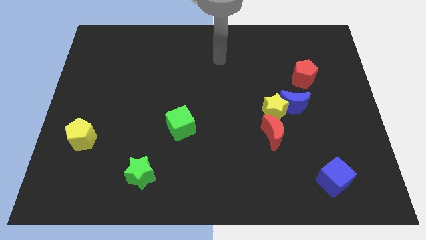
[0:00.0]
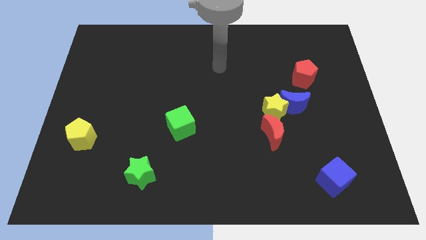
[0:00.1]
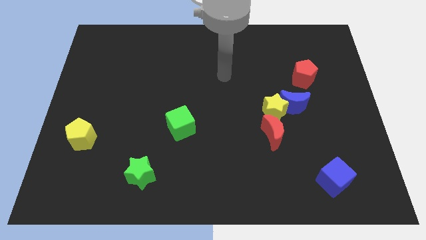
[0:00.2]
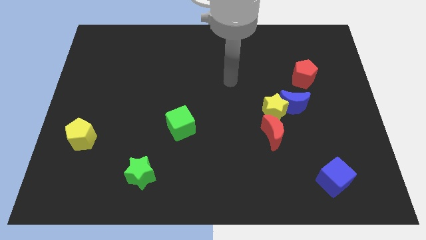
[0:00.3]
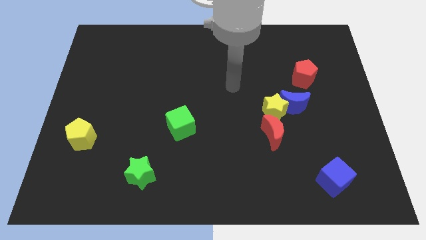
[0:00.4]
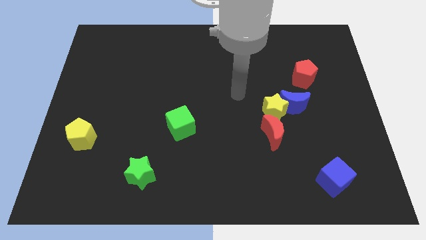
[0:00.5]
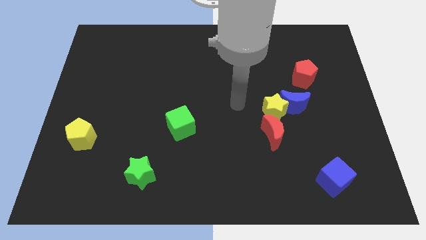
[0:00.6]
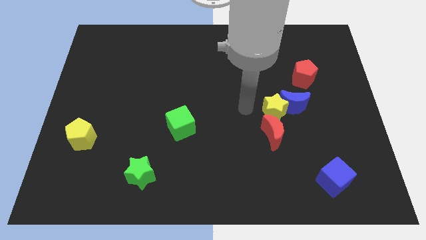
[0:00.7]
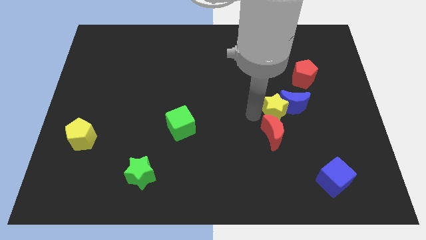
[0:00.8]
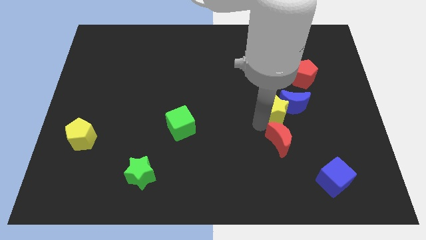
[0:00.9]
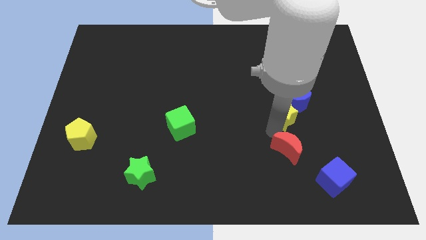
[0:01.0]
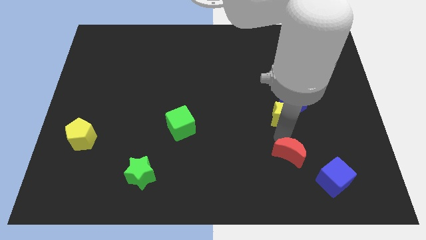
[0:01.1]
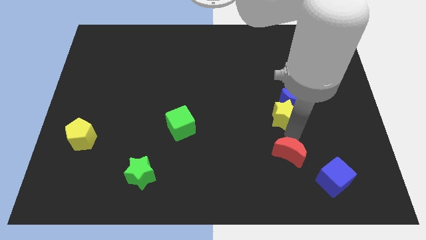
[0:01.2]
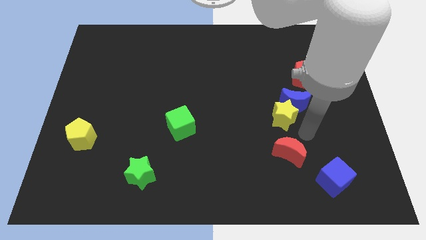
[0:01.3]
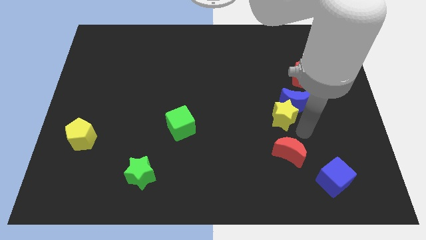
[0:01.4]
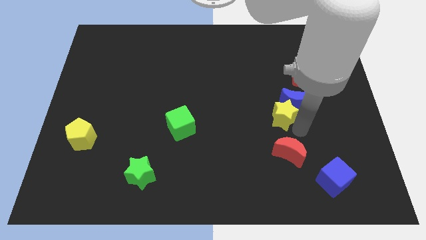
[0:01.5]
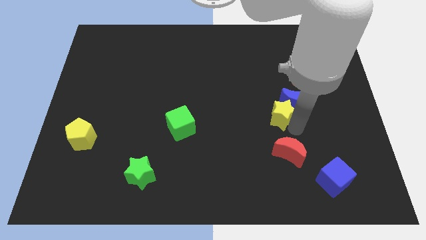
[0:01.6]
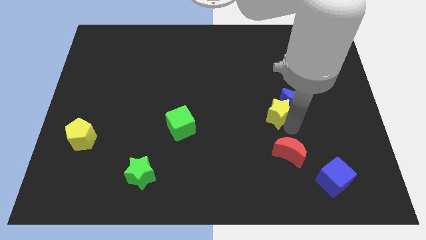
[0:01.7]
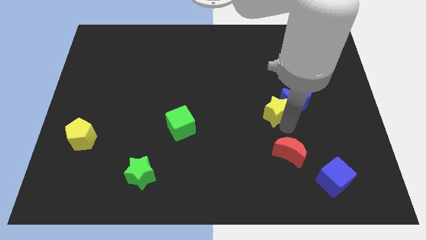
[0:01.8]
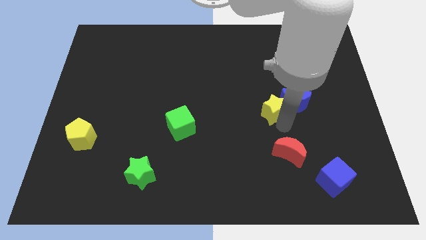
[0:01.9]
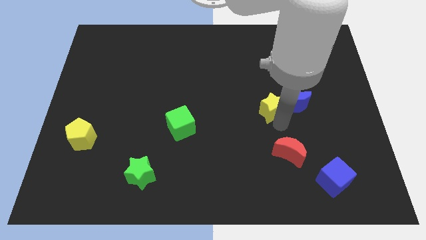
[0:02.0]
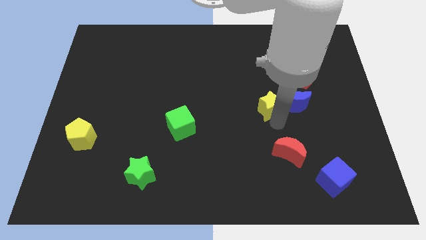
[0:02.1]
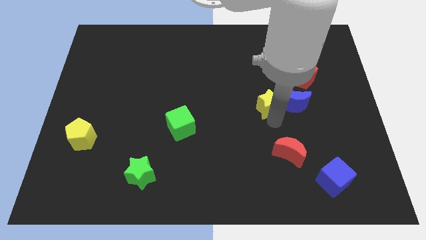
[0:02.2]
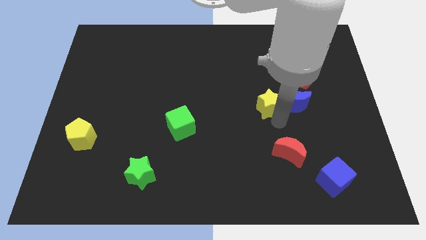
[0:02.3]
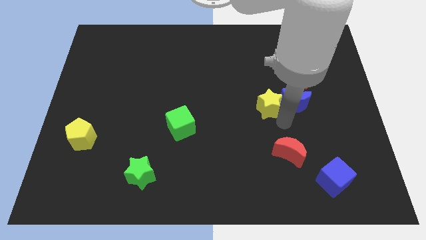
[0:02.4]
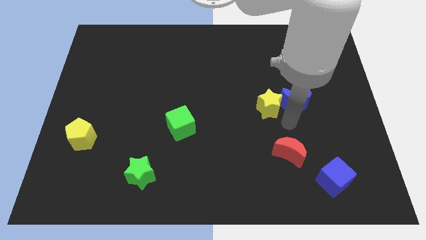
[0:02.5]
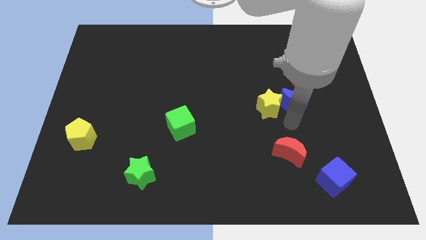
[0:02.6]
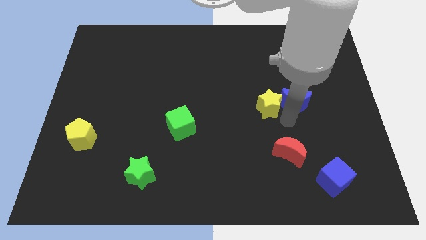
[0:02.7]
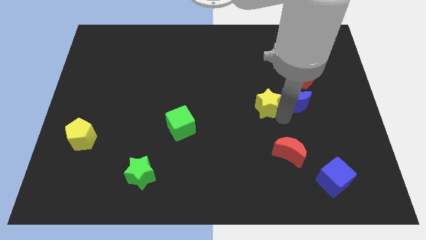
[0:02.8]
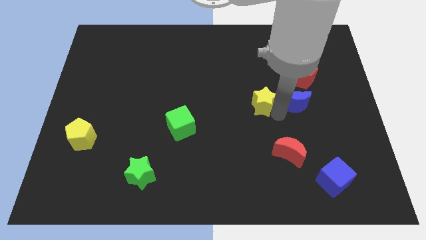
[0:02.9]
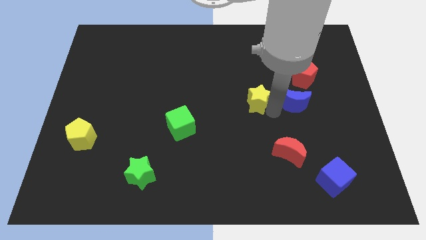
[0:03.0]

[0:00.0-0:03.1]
separate the yellow star from the blue moon and red moon

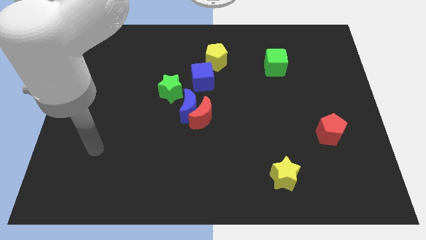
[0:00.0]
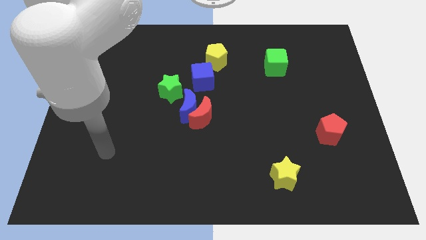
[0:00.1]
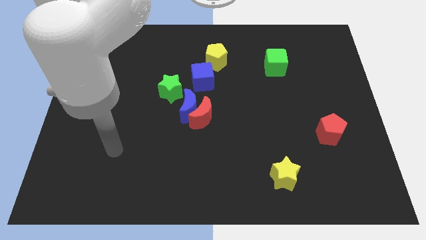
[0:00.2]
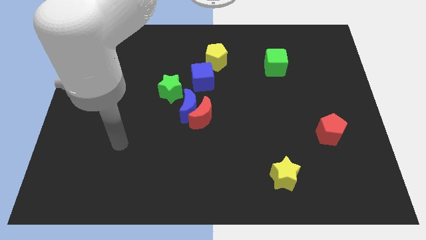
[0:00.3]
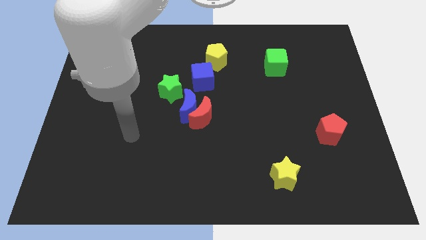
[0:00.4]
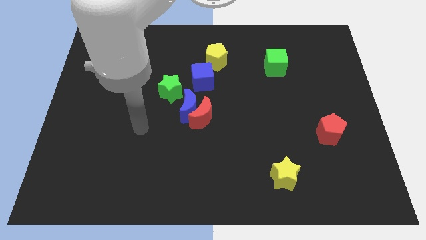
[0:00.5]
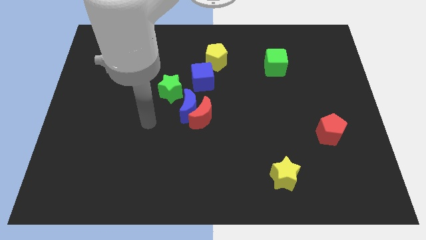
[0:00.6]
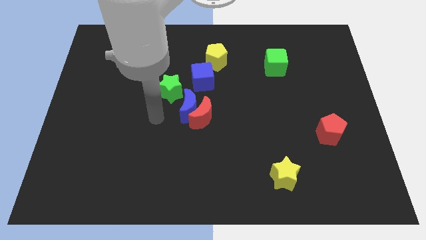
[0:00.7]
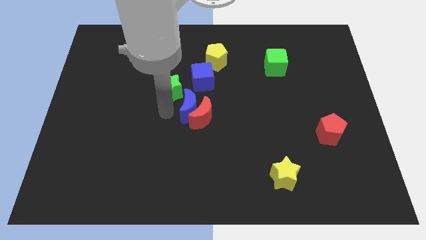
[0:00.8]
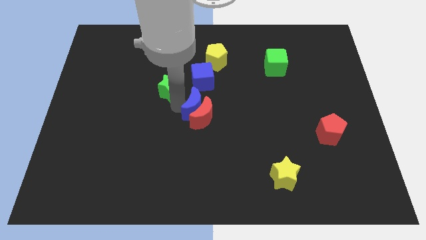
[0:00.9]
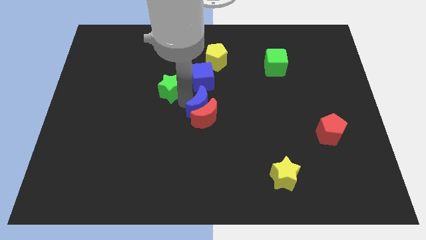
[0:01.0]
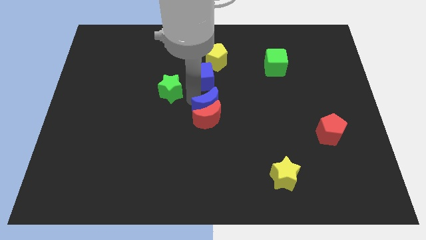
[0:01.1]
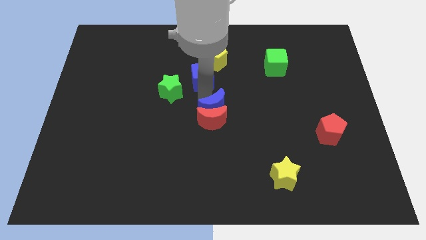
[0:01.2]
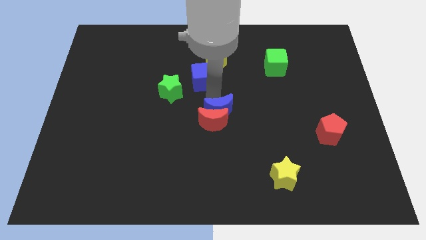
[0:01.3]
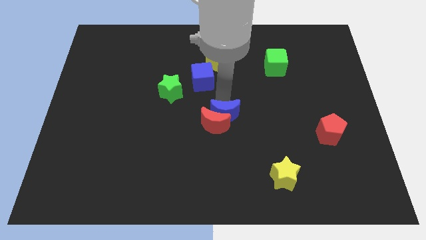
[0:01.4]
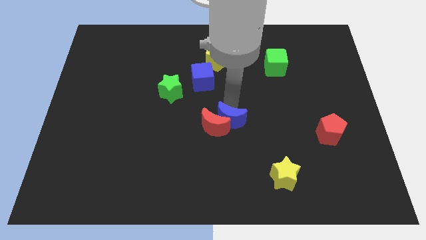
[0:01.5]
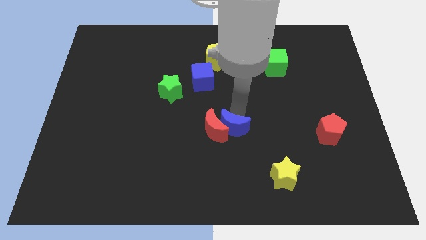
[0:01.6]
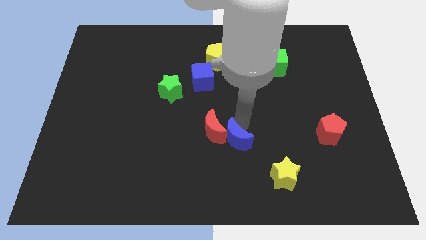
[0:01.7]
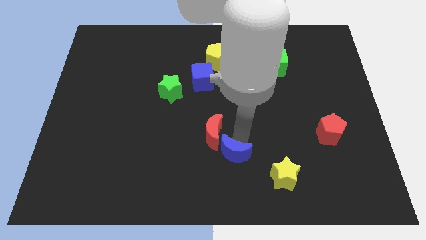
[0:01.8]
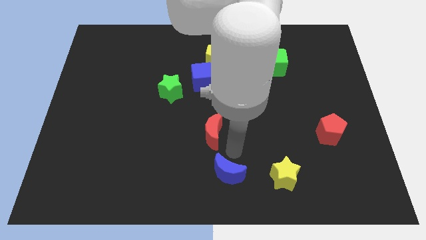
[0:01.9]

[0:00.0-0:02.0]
separate the red moon from the blue moon

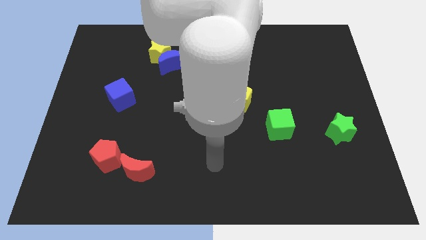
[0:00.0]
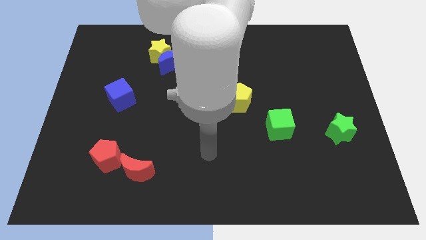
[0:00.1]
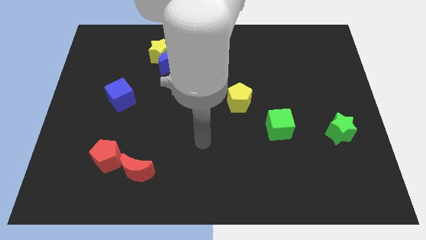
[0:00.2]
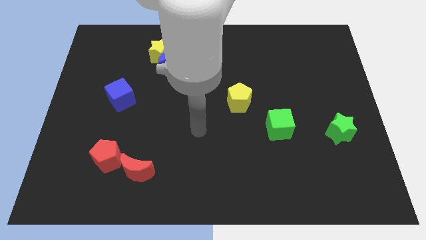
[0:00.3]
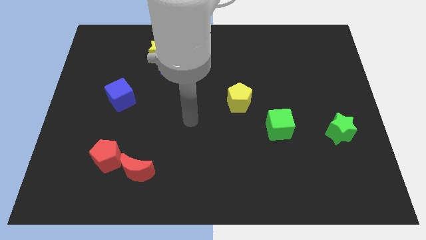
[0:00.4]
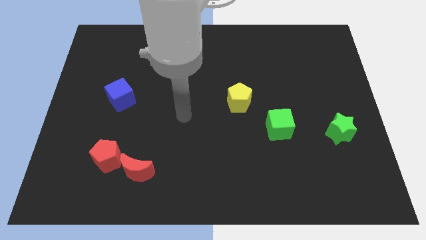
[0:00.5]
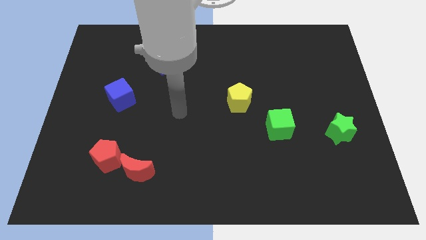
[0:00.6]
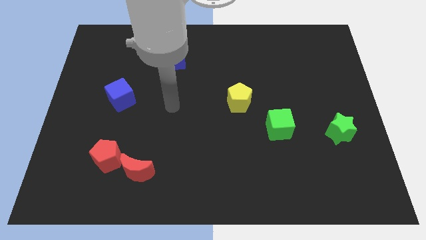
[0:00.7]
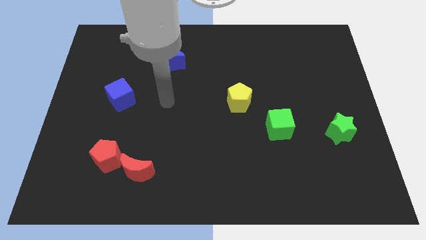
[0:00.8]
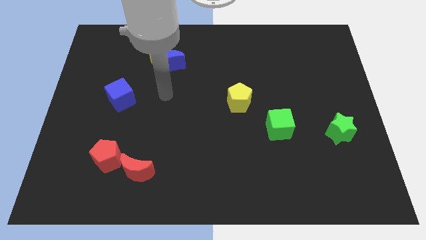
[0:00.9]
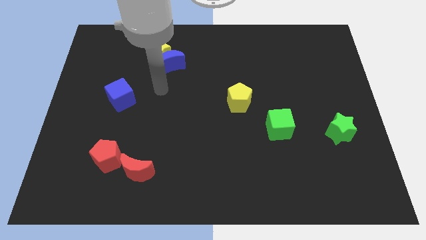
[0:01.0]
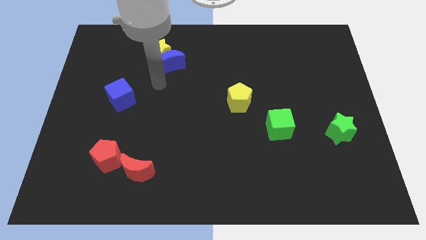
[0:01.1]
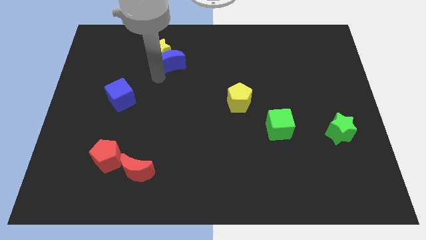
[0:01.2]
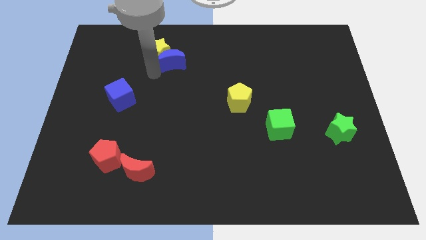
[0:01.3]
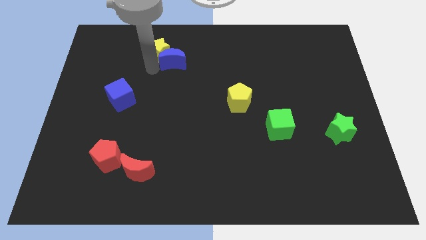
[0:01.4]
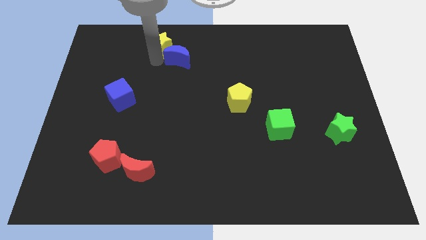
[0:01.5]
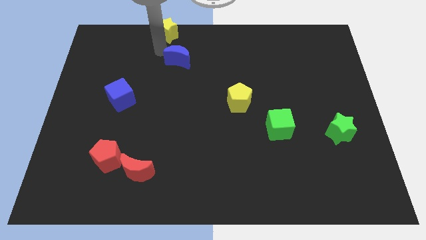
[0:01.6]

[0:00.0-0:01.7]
move the blue moon away from the yellow star

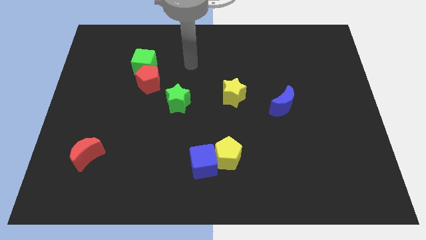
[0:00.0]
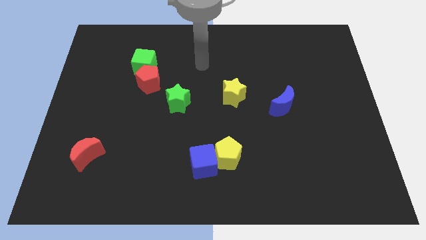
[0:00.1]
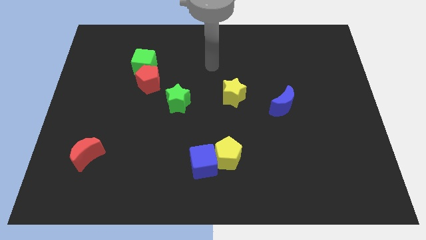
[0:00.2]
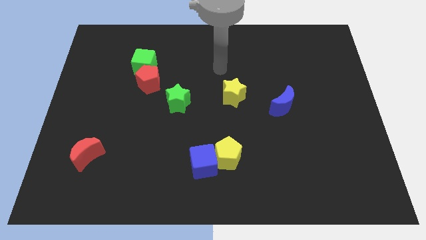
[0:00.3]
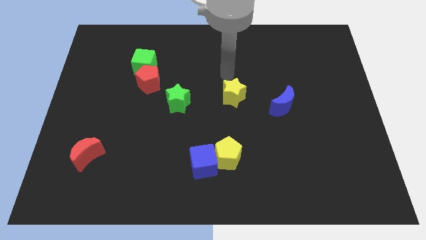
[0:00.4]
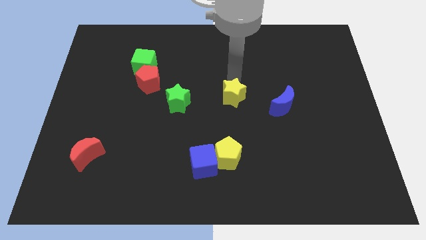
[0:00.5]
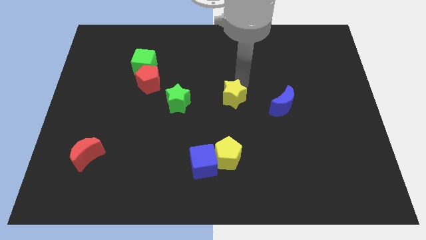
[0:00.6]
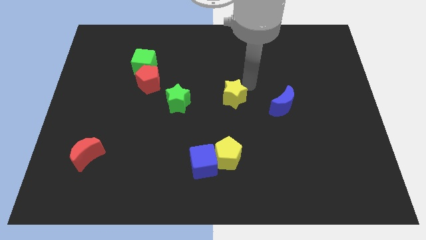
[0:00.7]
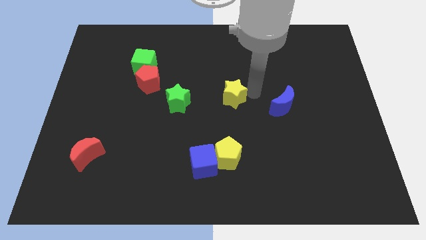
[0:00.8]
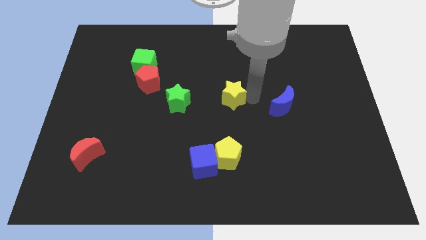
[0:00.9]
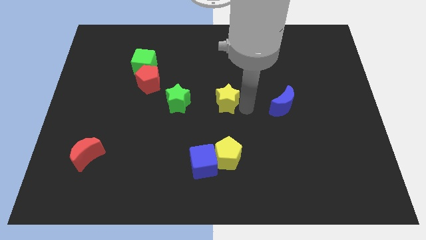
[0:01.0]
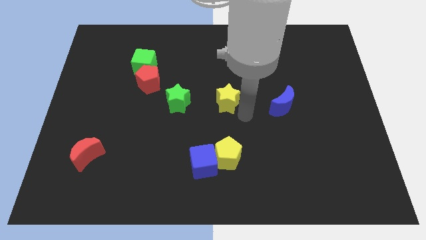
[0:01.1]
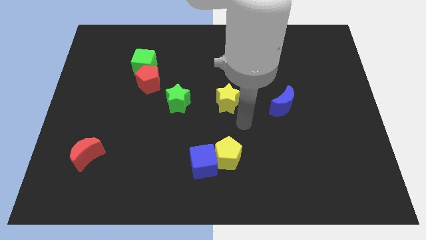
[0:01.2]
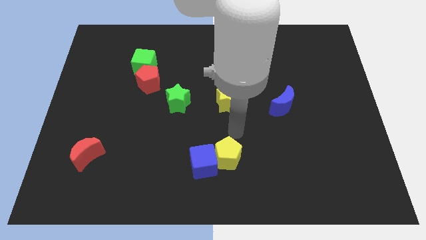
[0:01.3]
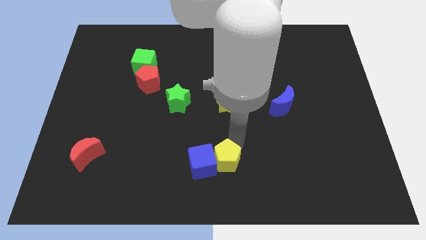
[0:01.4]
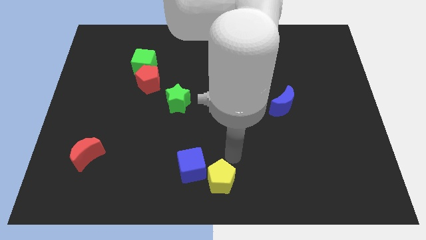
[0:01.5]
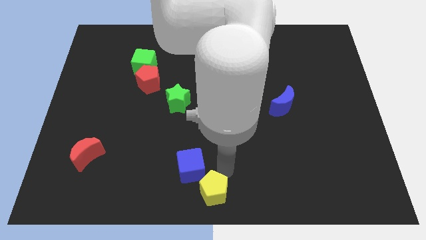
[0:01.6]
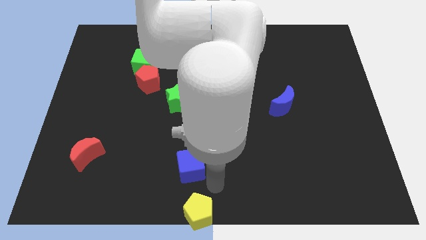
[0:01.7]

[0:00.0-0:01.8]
move the blue cube away from the yellow pentagon

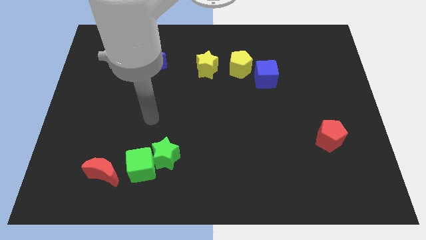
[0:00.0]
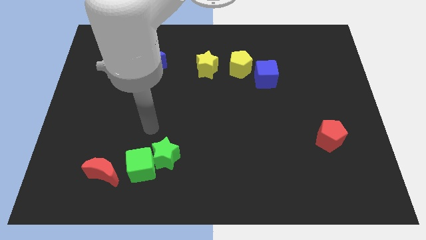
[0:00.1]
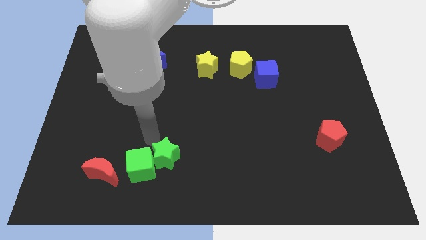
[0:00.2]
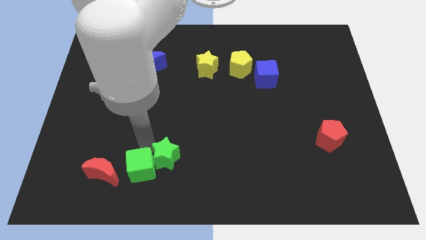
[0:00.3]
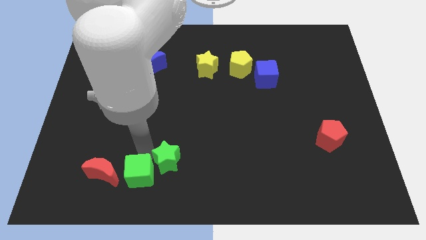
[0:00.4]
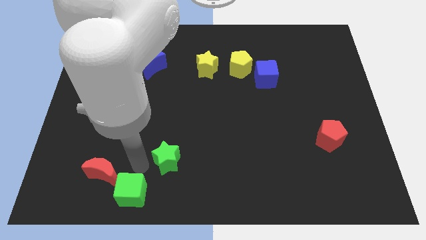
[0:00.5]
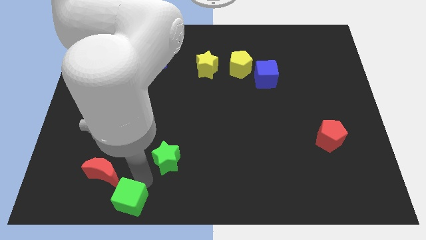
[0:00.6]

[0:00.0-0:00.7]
move the green star away from the green cube
